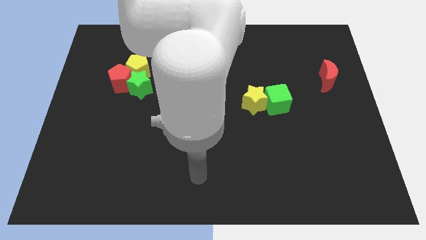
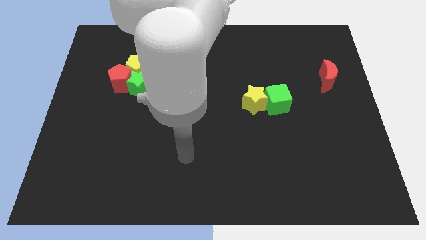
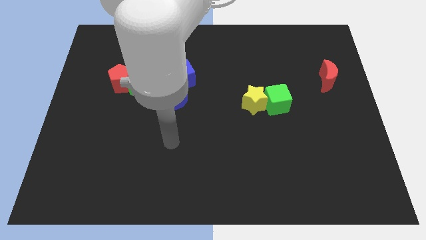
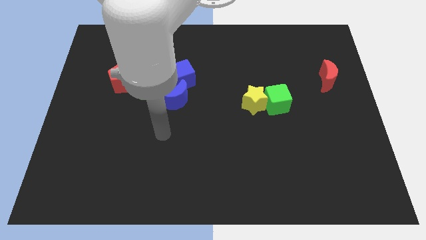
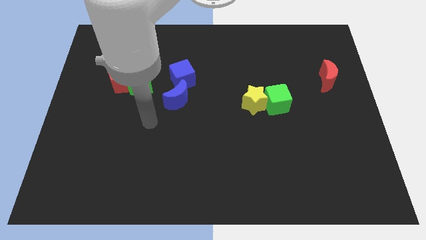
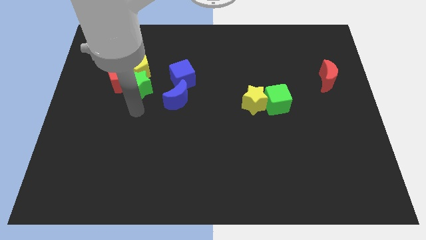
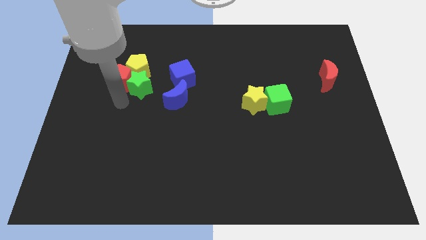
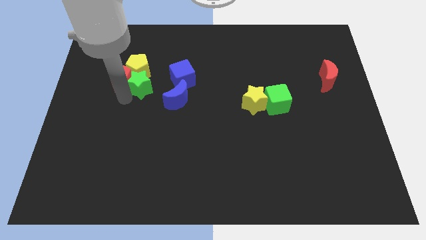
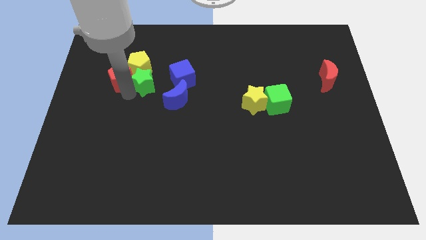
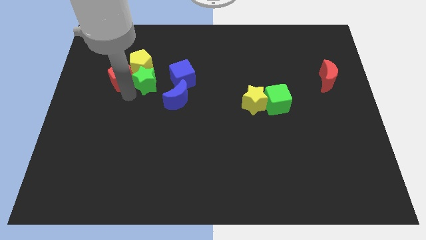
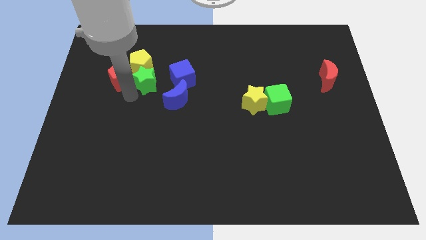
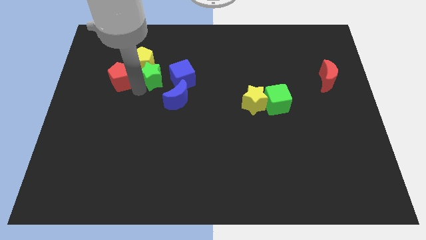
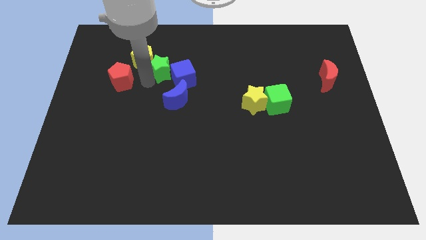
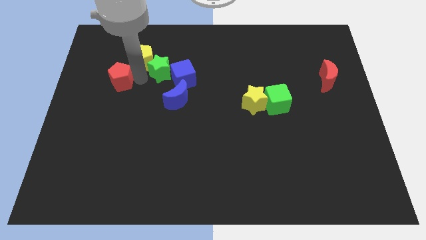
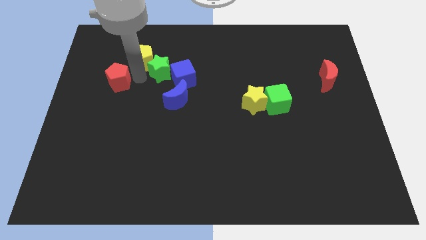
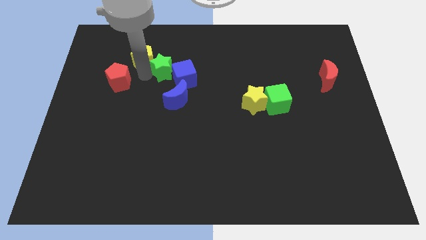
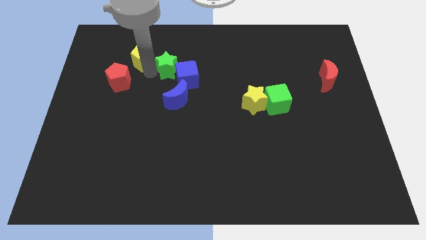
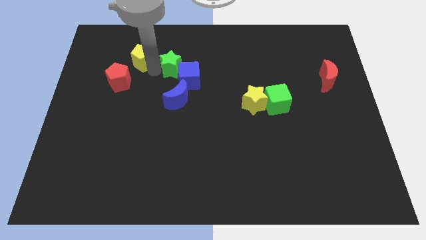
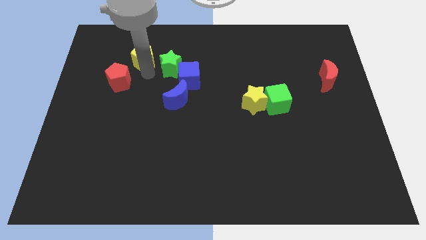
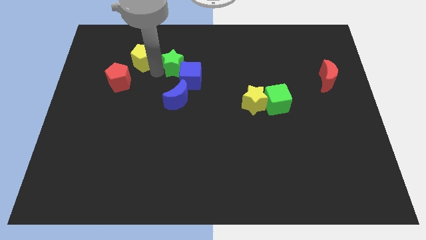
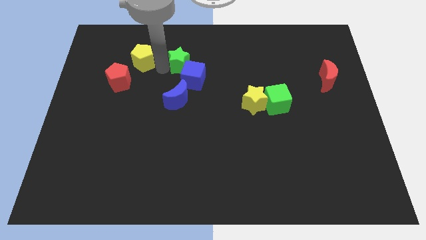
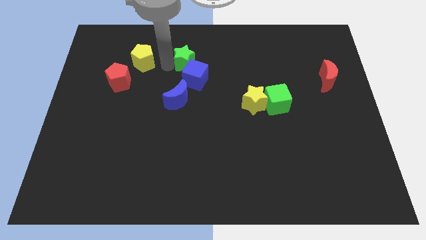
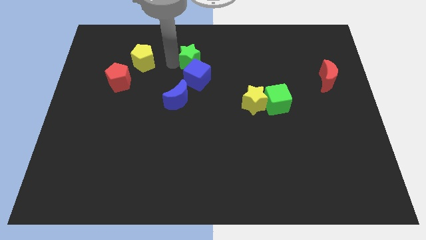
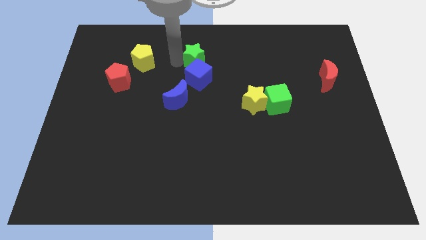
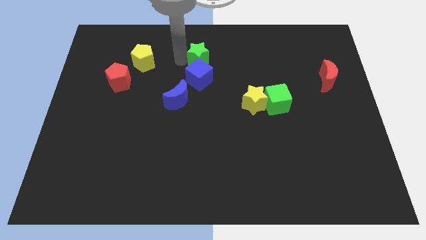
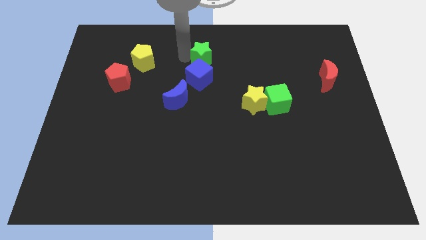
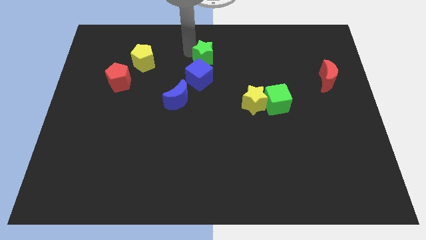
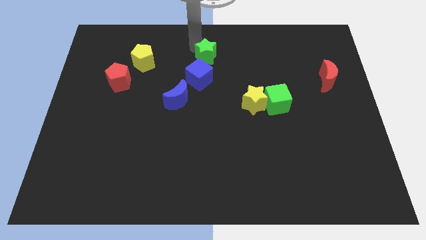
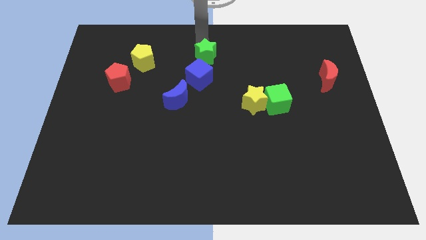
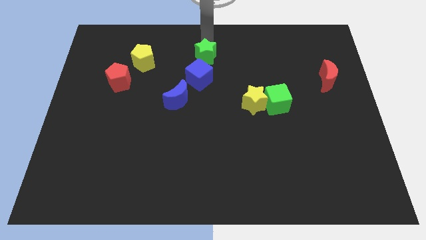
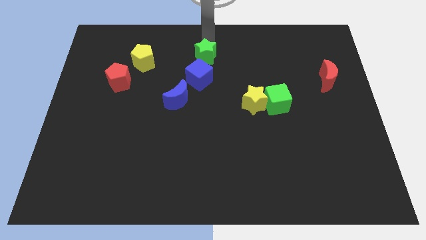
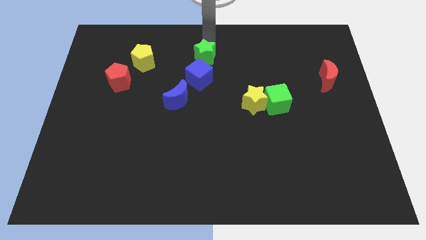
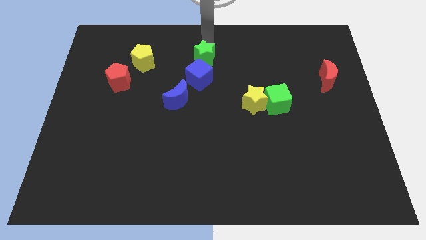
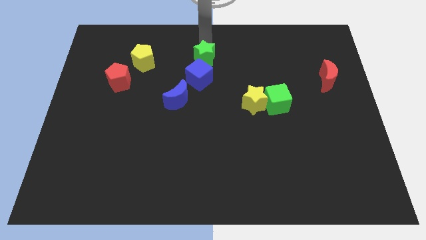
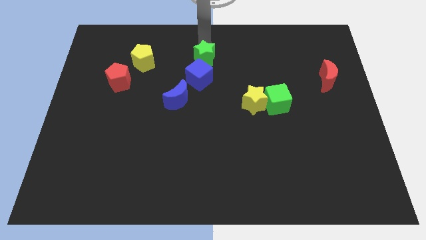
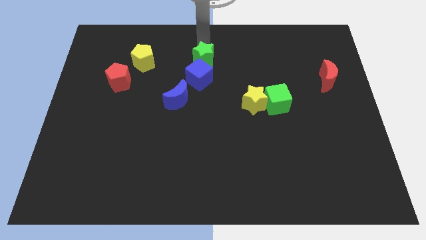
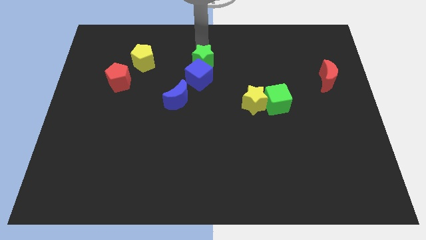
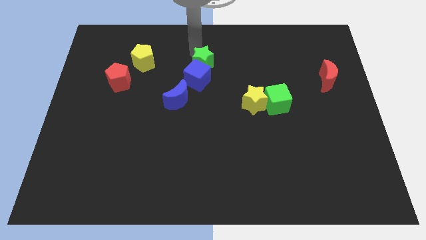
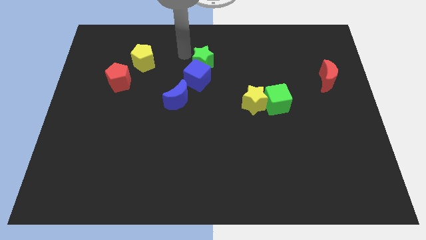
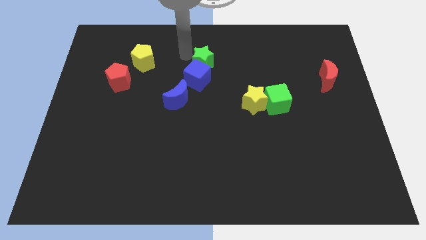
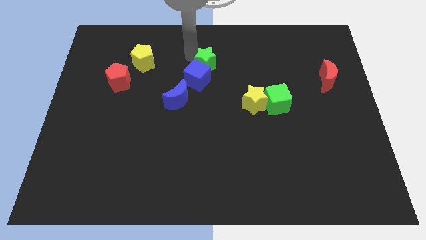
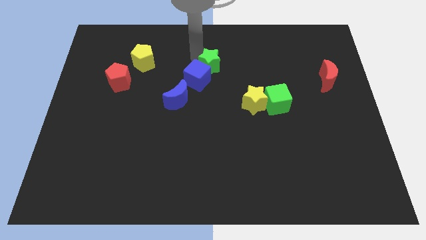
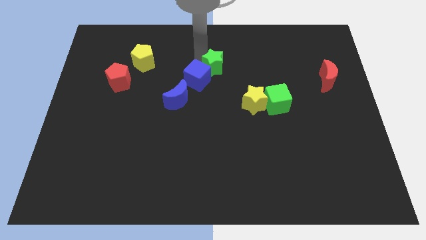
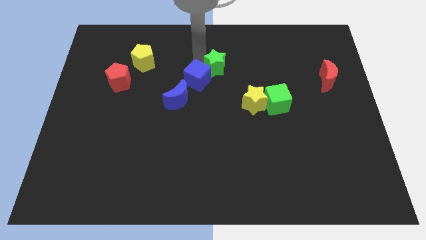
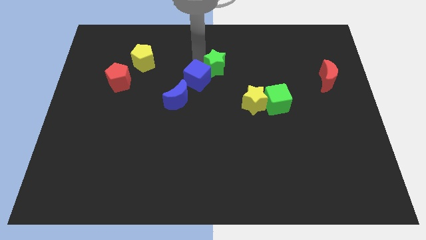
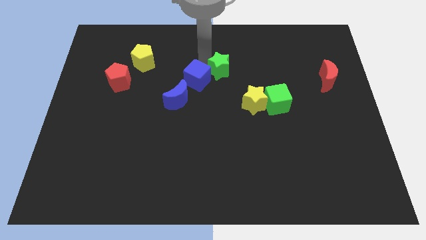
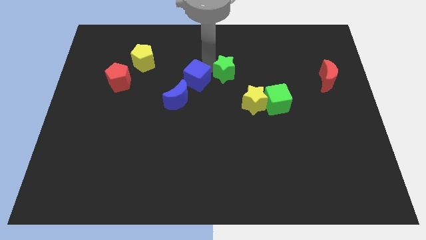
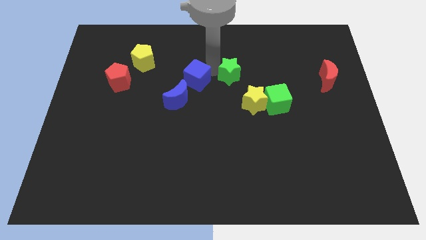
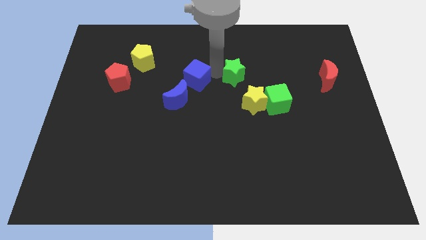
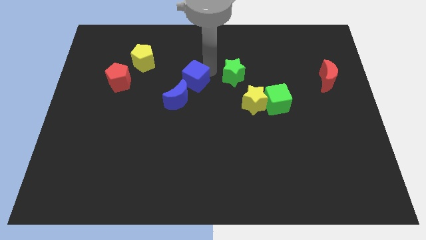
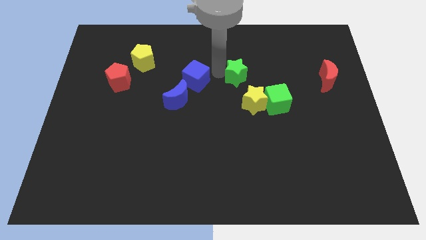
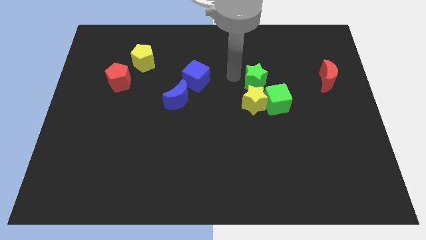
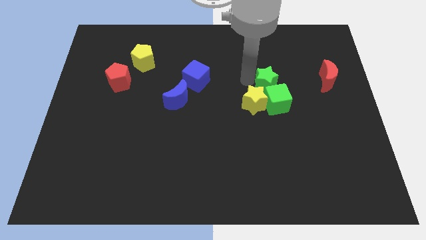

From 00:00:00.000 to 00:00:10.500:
push the green star just left of the red moon

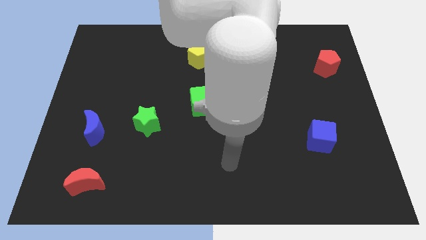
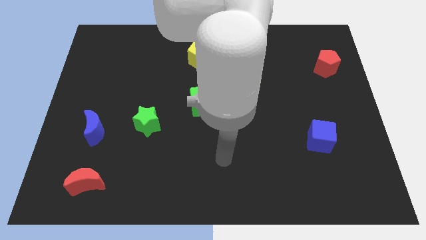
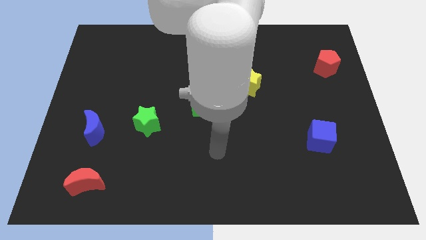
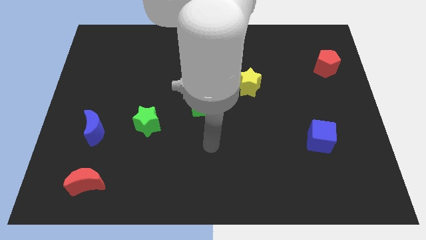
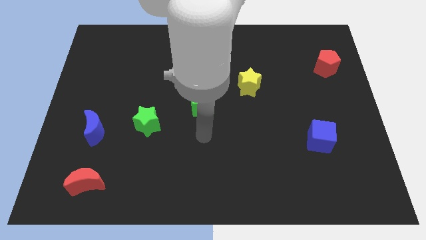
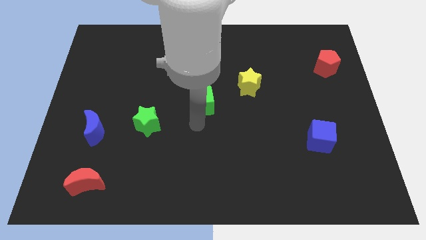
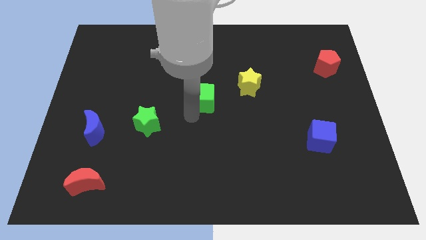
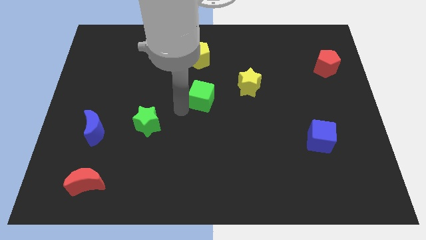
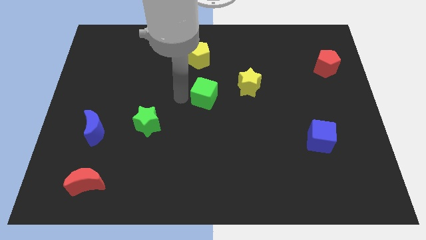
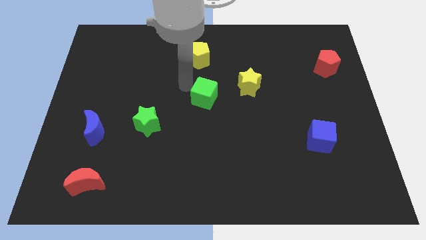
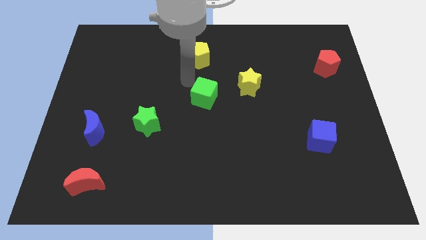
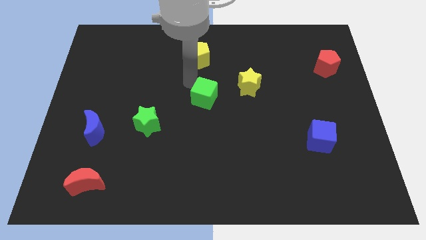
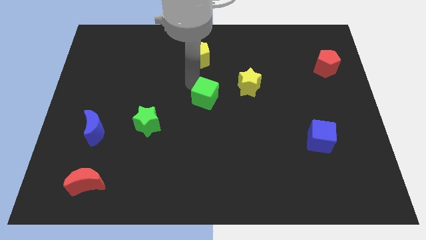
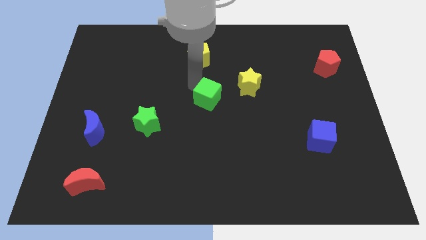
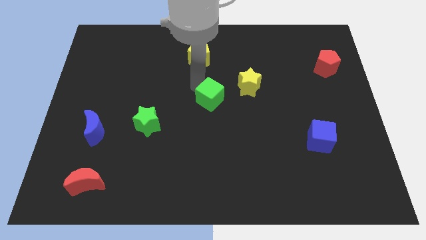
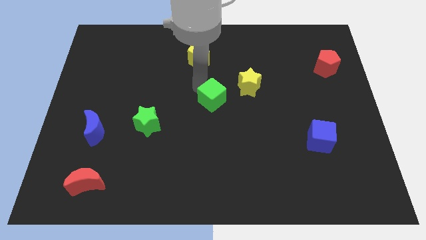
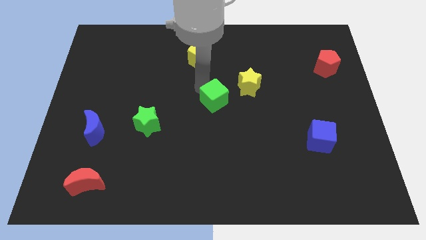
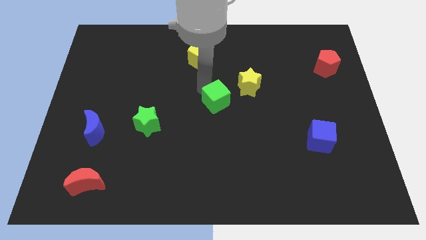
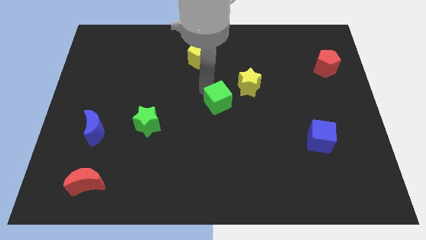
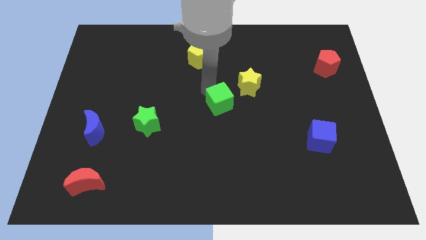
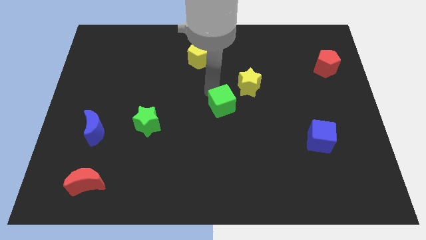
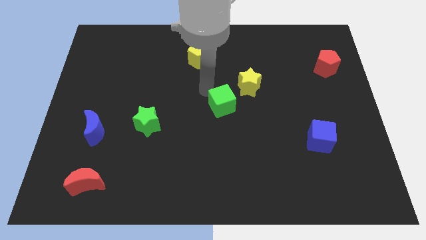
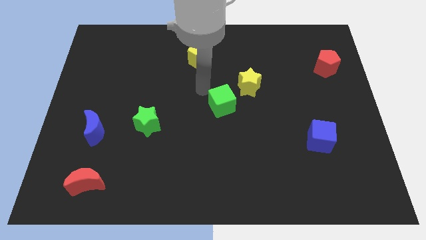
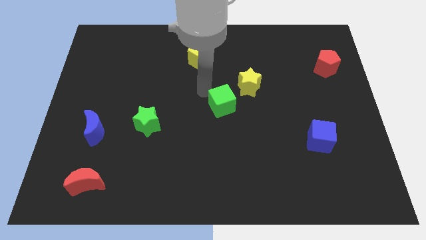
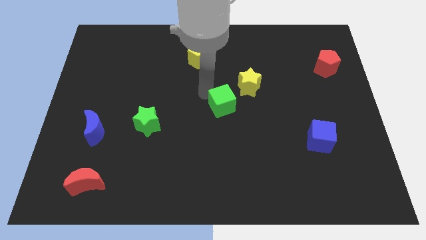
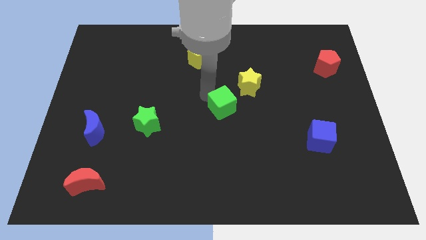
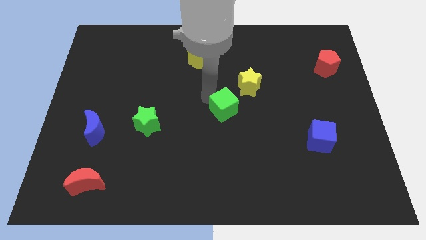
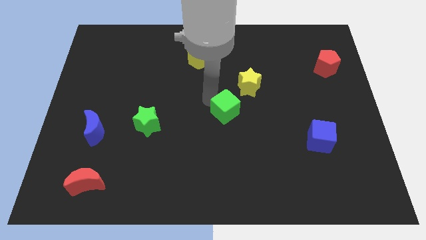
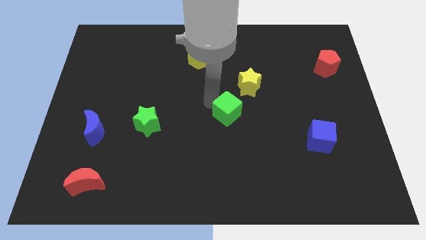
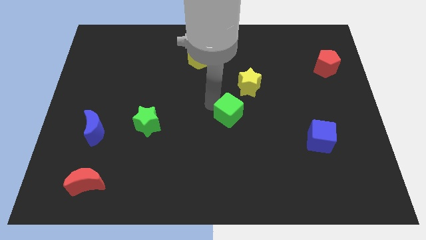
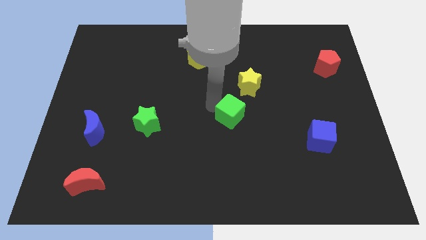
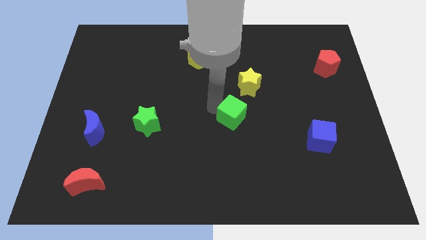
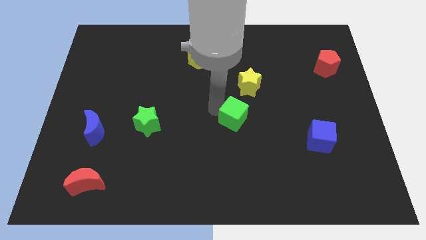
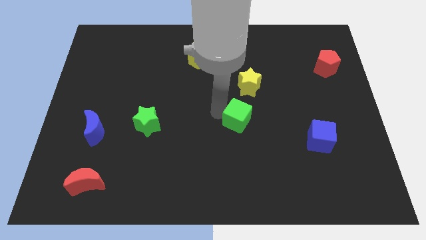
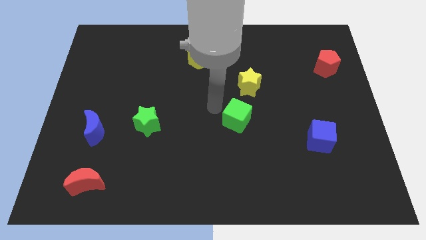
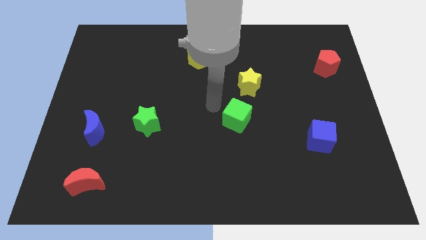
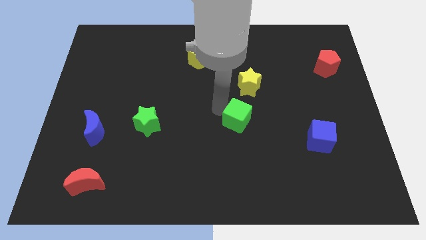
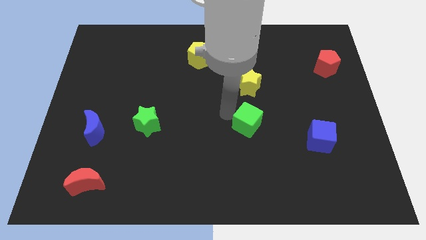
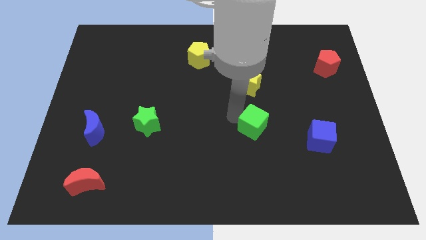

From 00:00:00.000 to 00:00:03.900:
put the green cube to the left side of the blue cube
